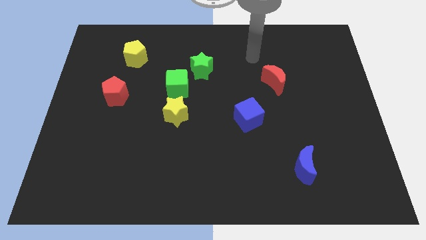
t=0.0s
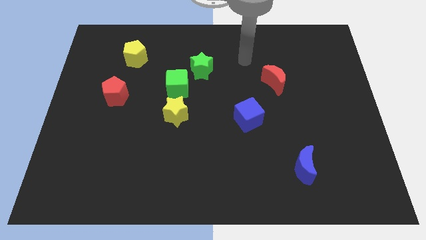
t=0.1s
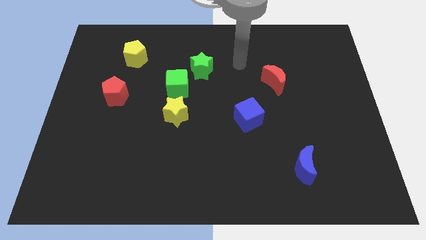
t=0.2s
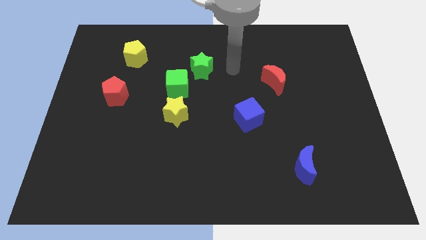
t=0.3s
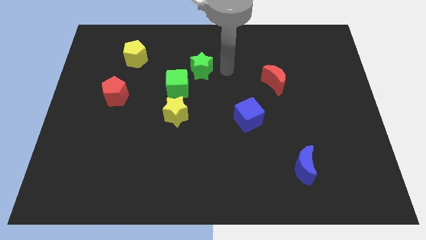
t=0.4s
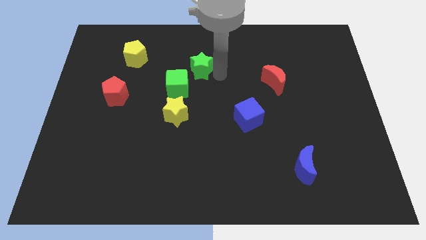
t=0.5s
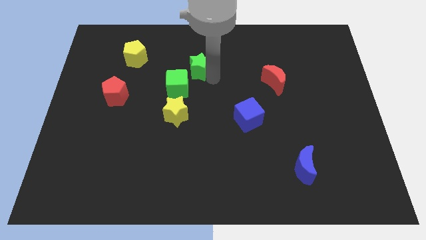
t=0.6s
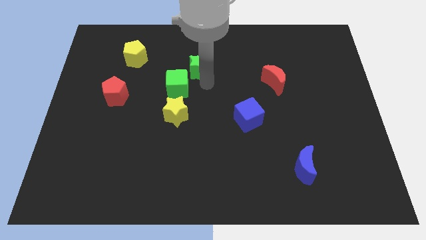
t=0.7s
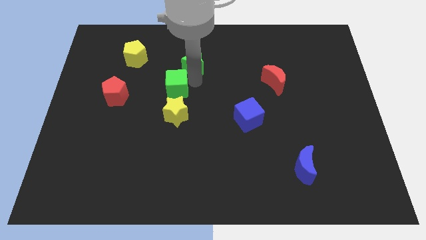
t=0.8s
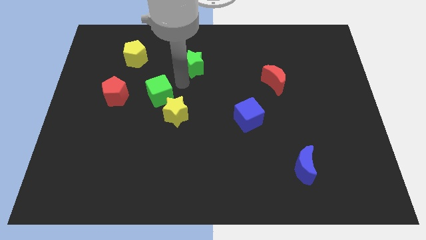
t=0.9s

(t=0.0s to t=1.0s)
separate the green star from the green cube

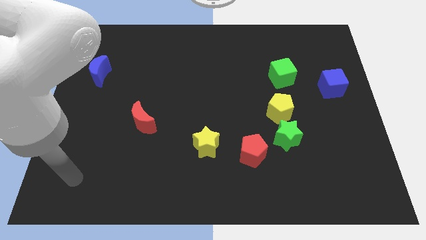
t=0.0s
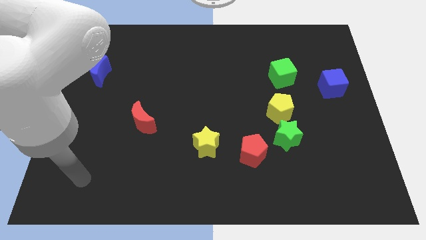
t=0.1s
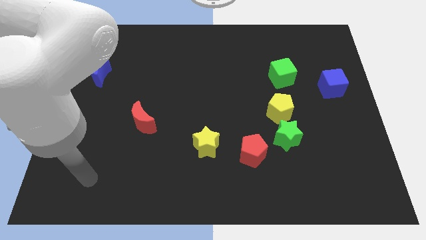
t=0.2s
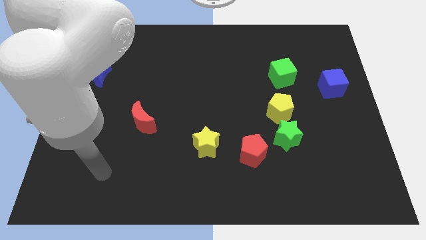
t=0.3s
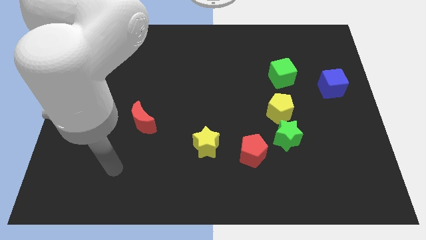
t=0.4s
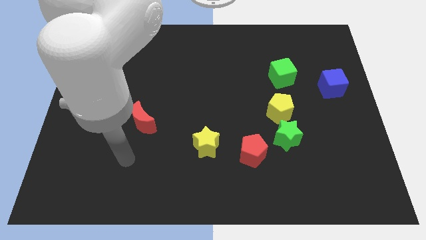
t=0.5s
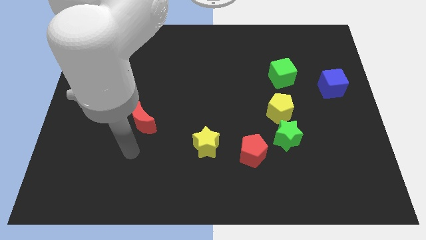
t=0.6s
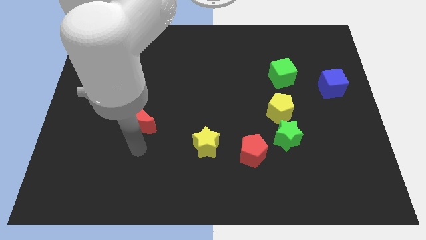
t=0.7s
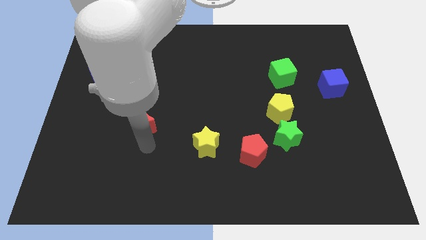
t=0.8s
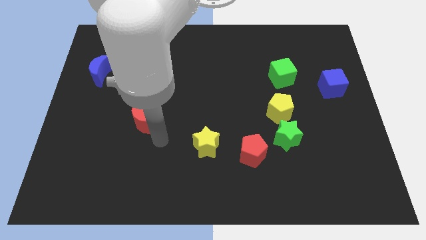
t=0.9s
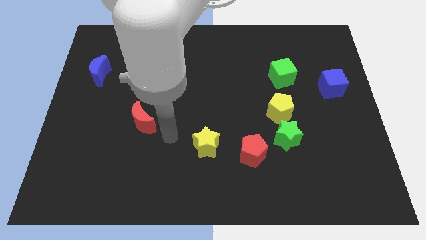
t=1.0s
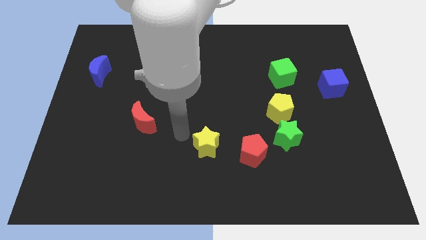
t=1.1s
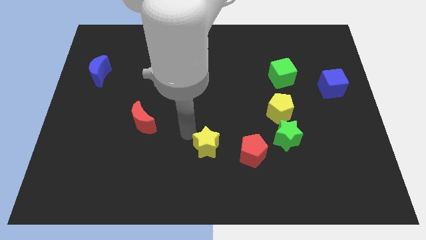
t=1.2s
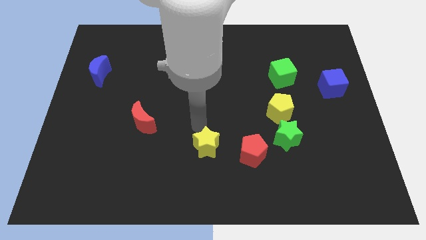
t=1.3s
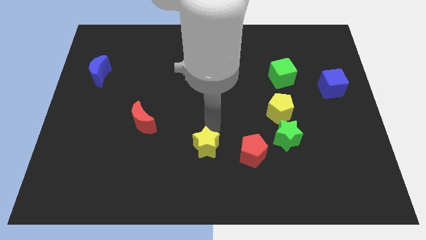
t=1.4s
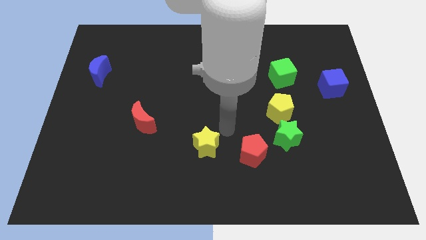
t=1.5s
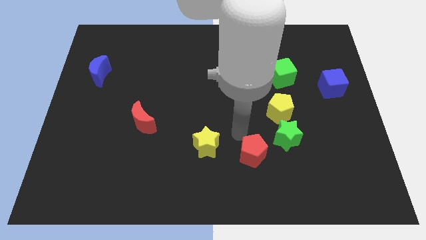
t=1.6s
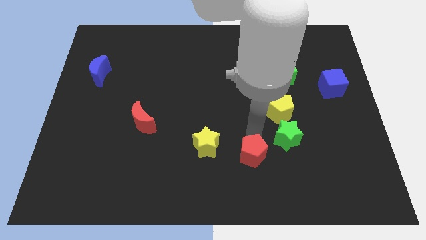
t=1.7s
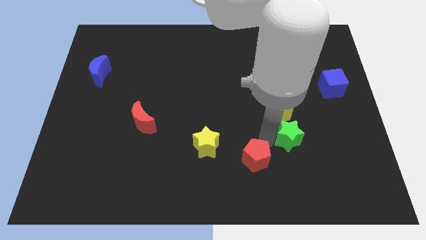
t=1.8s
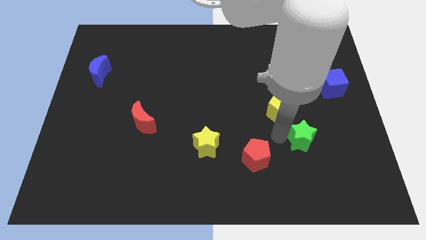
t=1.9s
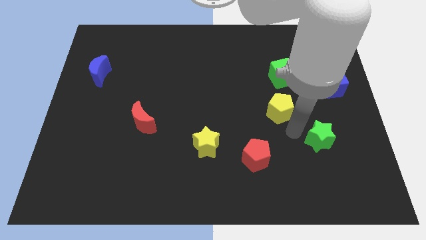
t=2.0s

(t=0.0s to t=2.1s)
separate the yellow pentagon from the green star

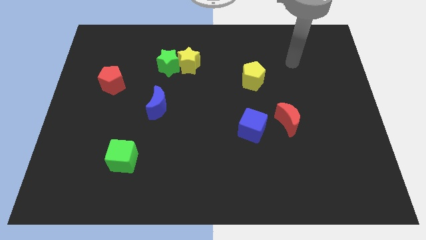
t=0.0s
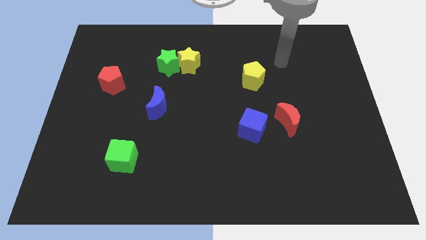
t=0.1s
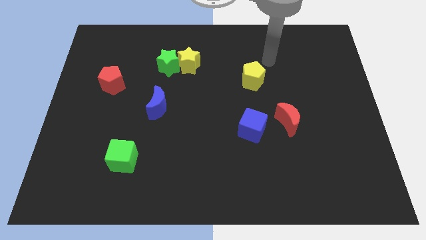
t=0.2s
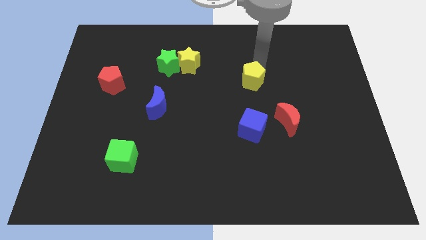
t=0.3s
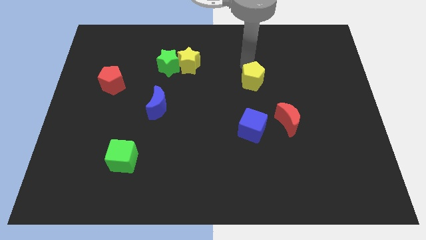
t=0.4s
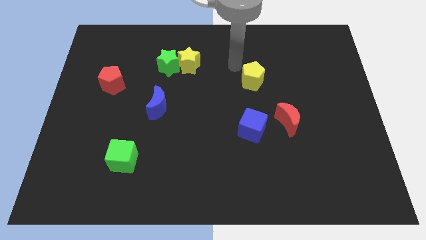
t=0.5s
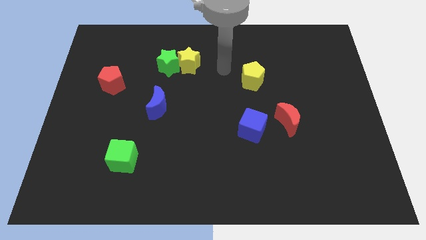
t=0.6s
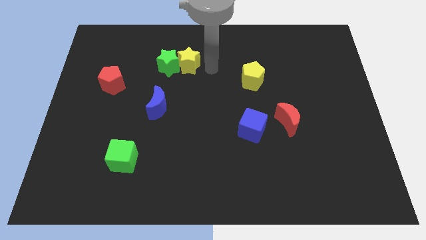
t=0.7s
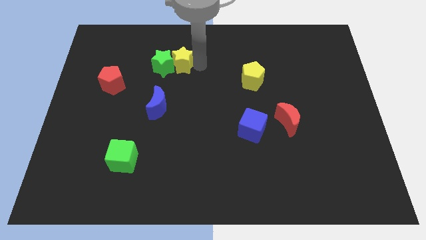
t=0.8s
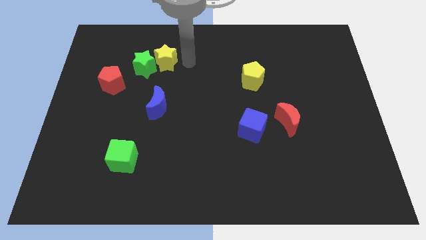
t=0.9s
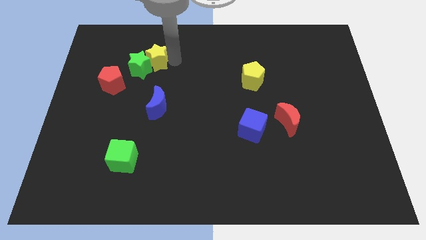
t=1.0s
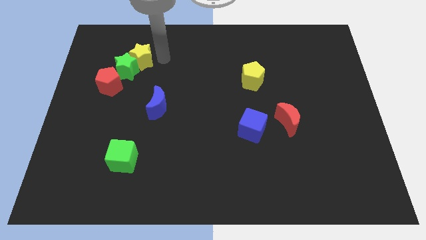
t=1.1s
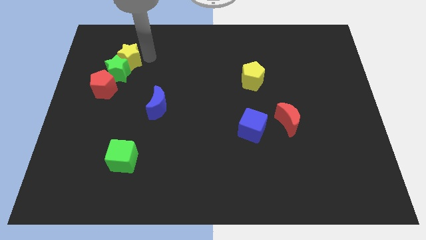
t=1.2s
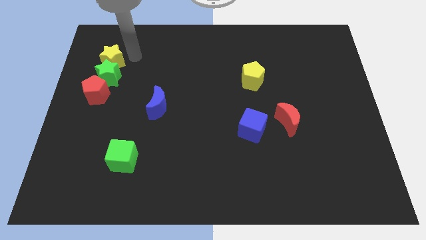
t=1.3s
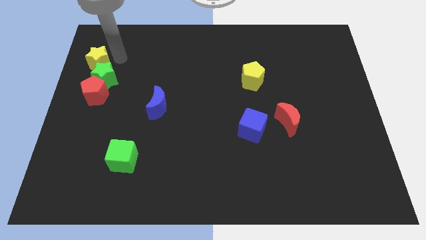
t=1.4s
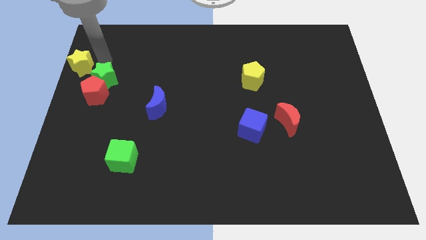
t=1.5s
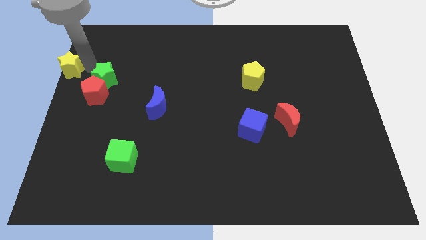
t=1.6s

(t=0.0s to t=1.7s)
move the green star away from the yellow star

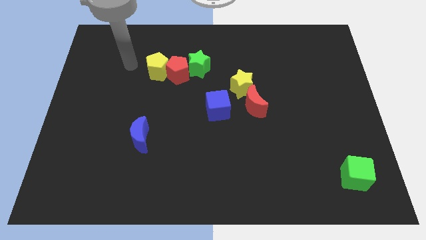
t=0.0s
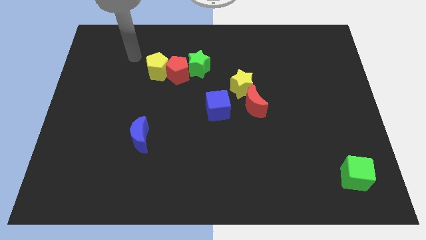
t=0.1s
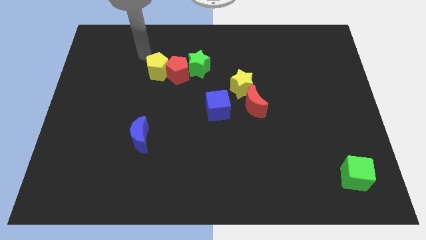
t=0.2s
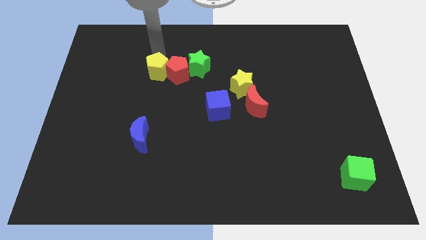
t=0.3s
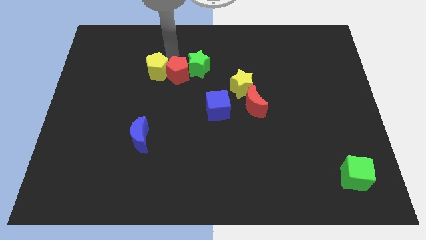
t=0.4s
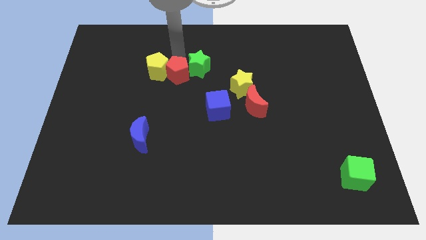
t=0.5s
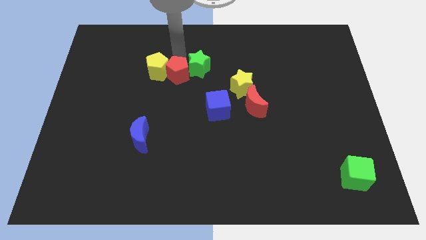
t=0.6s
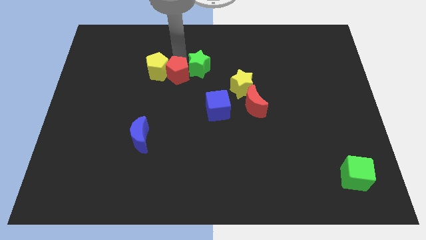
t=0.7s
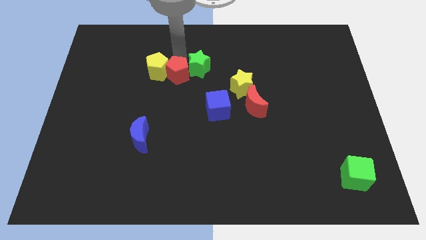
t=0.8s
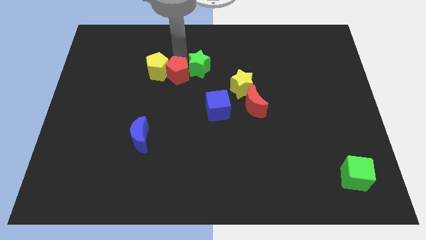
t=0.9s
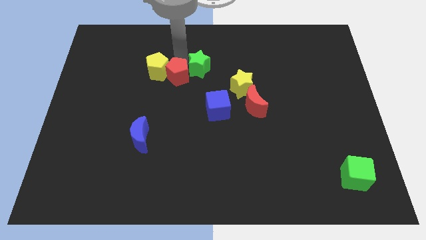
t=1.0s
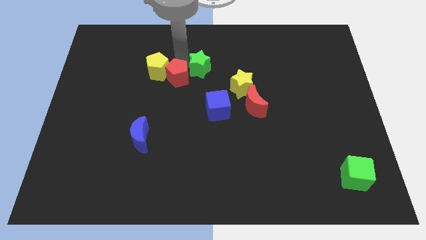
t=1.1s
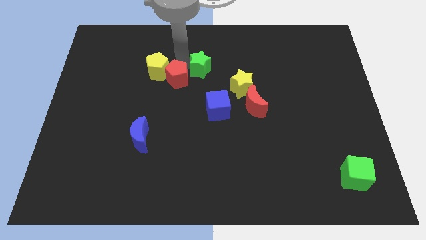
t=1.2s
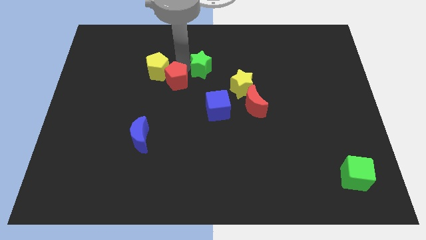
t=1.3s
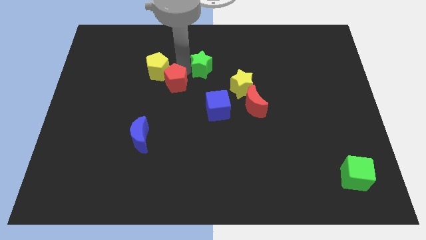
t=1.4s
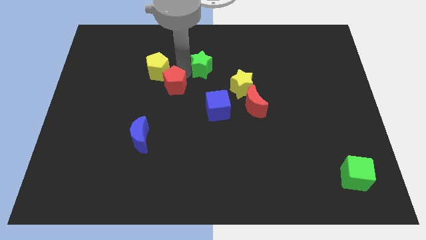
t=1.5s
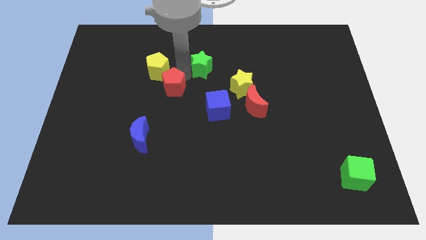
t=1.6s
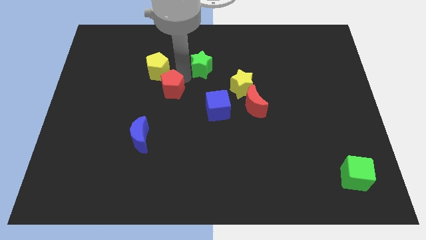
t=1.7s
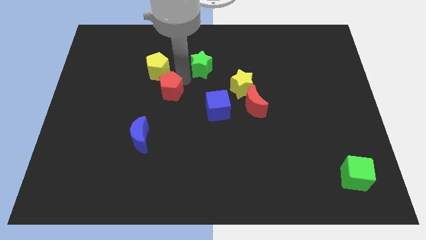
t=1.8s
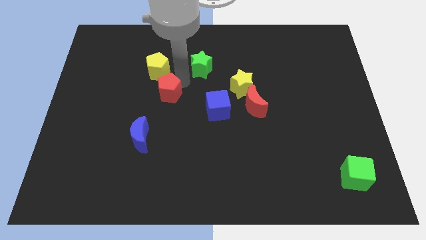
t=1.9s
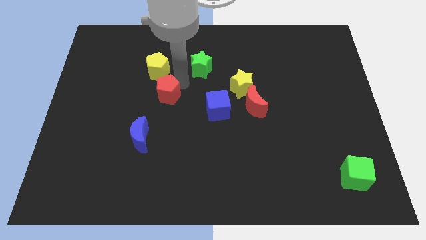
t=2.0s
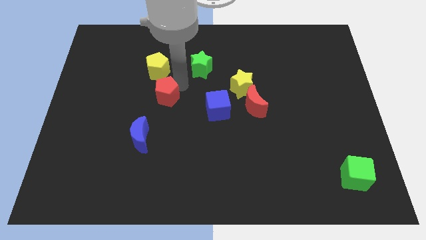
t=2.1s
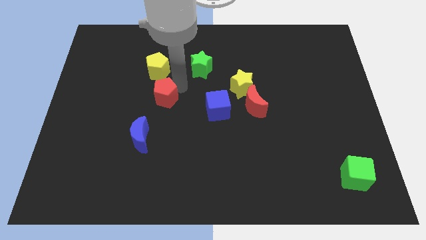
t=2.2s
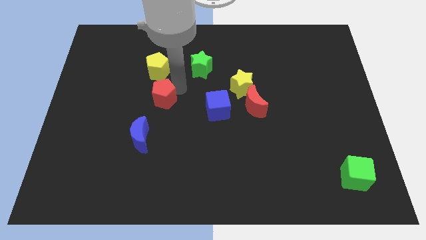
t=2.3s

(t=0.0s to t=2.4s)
move the red pentagon away from the yellow pentagon and green star

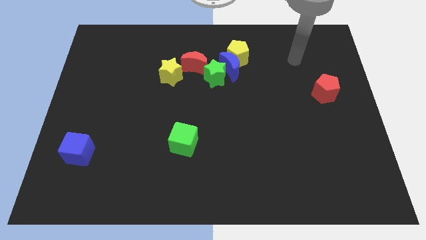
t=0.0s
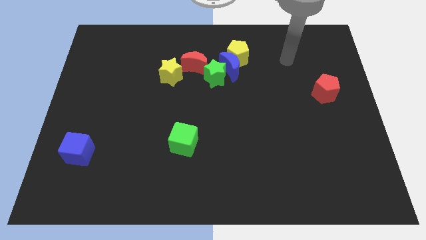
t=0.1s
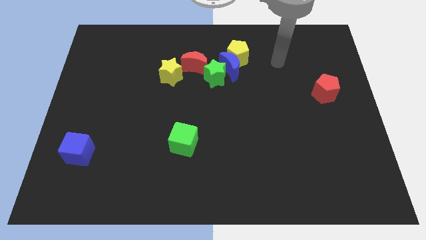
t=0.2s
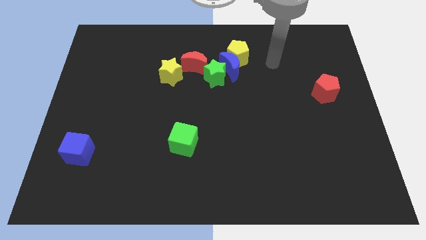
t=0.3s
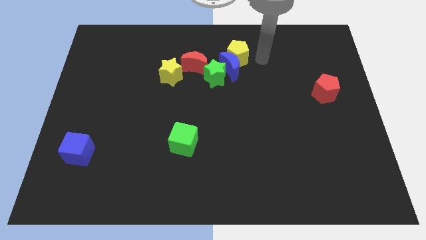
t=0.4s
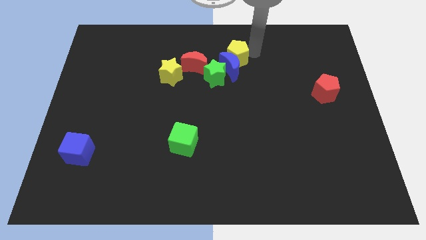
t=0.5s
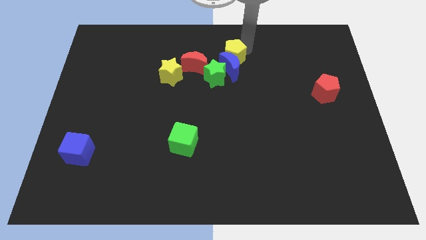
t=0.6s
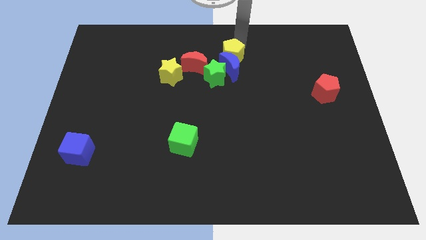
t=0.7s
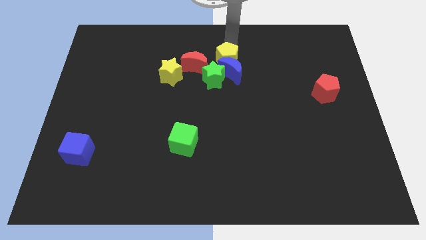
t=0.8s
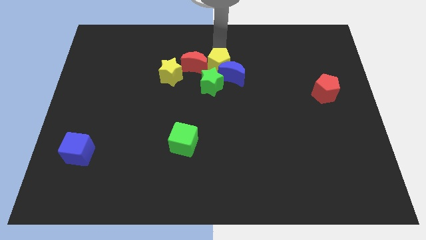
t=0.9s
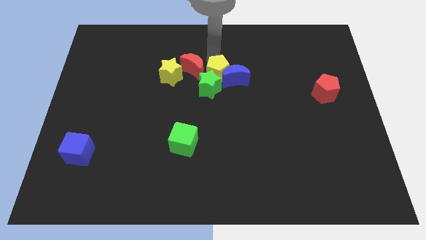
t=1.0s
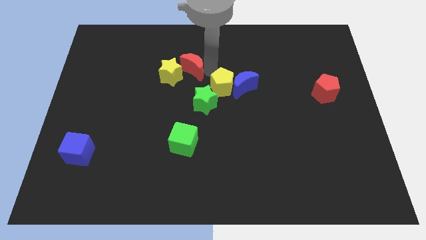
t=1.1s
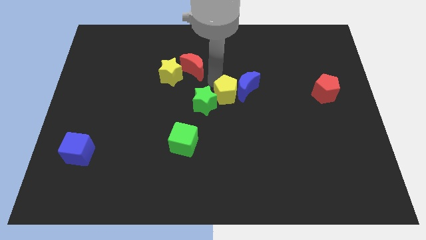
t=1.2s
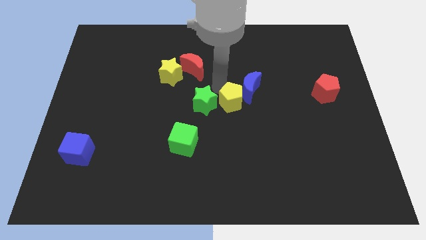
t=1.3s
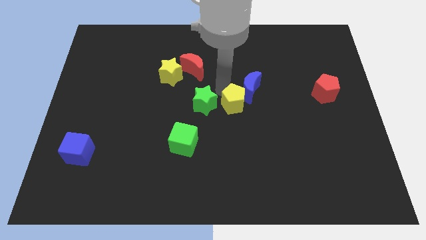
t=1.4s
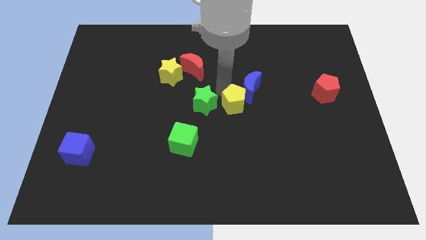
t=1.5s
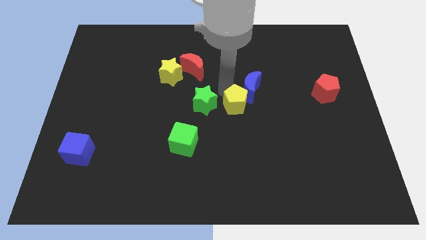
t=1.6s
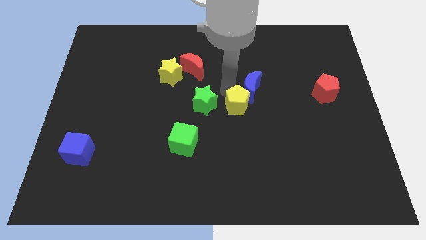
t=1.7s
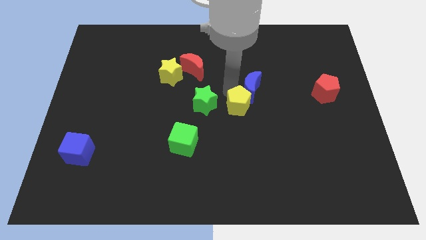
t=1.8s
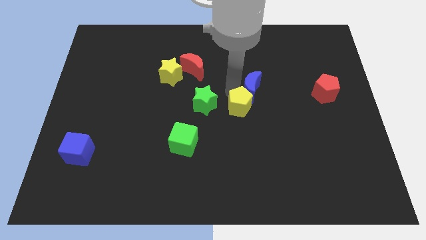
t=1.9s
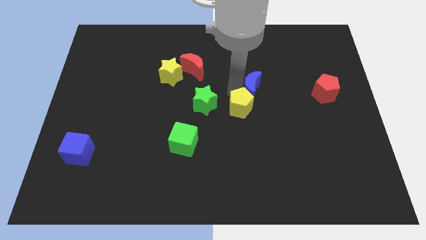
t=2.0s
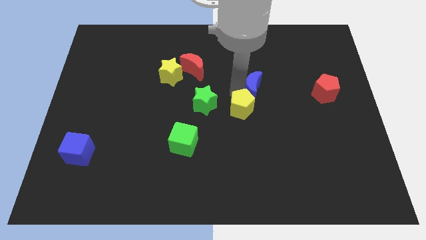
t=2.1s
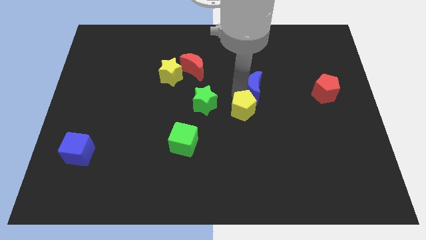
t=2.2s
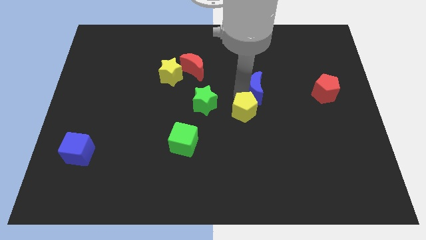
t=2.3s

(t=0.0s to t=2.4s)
pull the blue moon apart from the yellow pentagon, green star, and red moon
